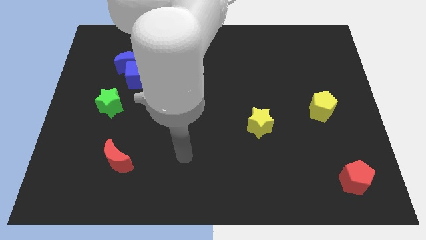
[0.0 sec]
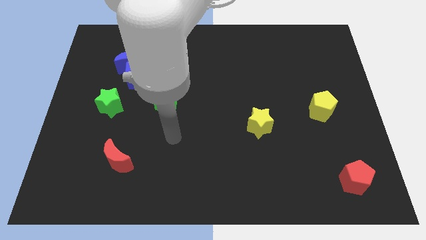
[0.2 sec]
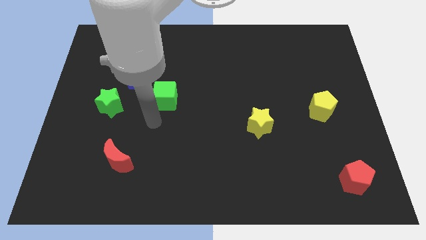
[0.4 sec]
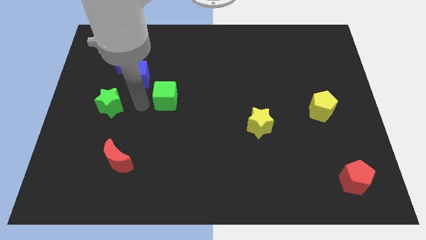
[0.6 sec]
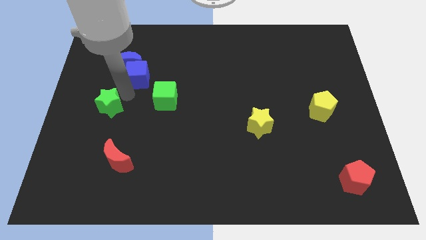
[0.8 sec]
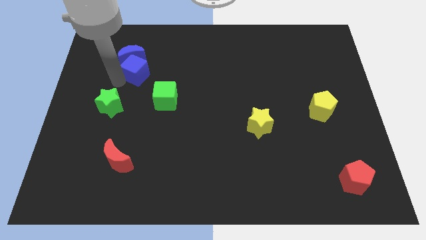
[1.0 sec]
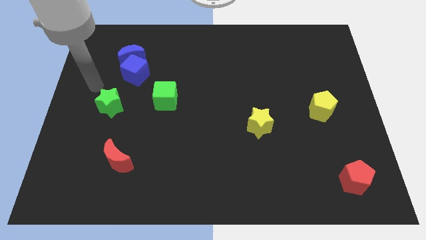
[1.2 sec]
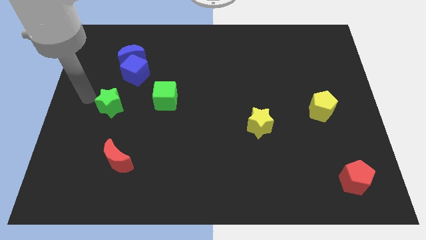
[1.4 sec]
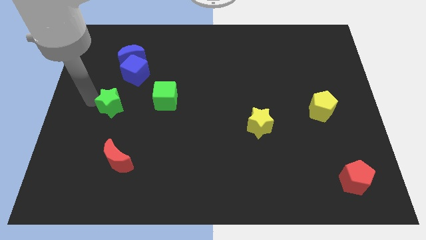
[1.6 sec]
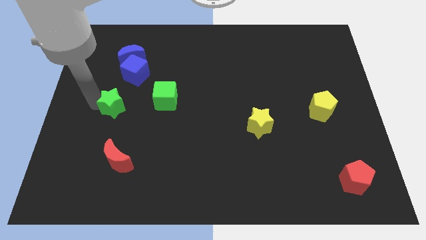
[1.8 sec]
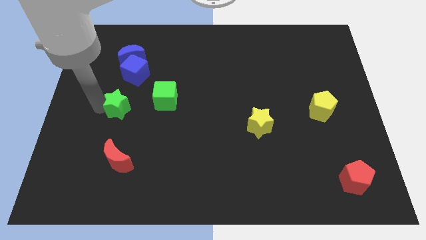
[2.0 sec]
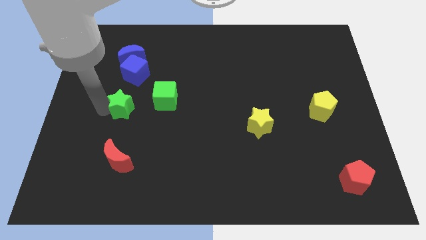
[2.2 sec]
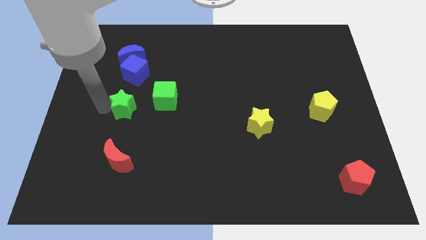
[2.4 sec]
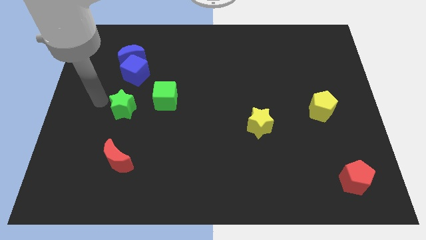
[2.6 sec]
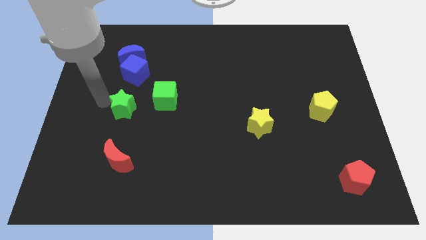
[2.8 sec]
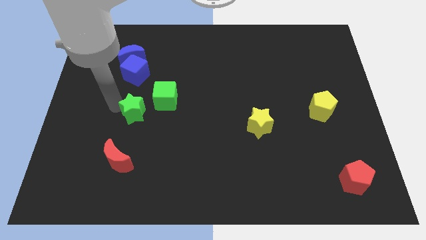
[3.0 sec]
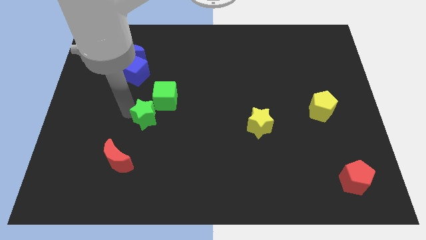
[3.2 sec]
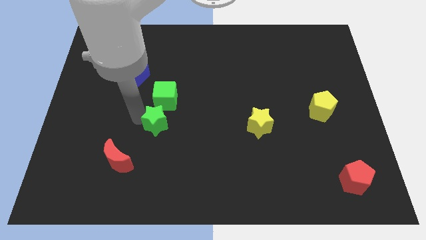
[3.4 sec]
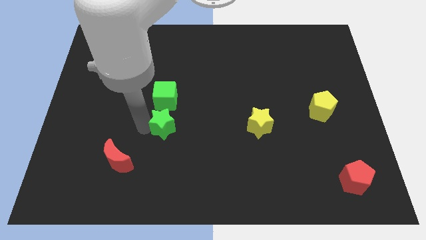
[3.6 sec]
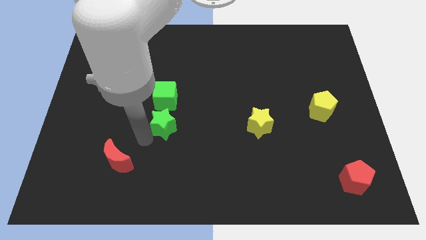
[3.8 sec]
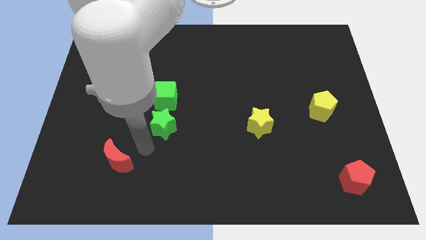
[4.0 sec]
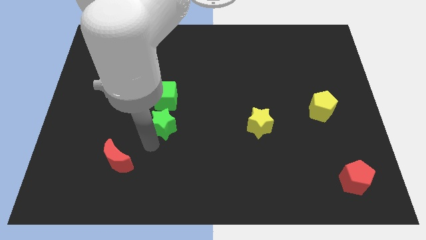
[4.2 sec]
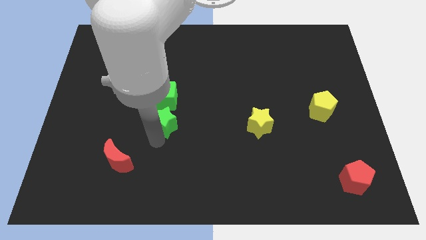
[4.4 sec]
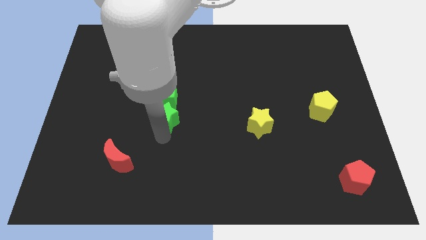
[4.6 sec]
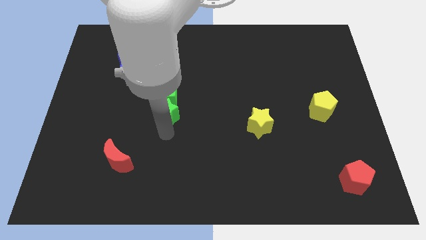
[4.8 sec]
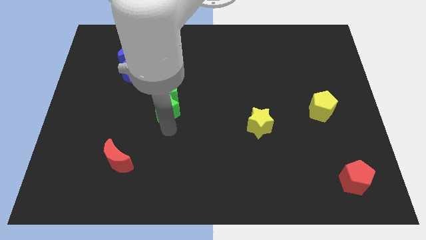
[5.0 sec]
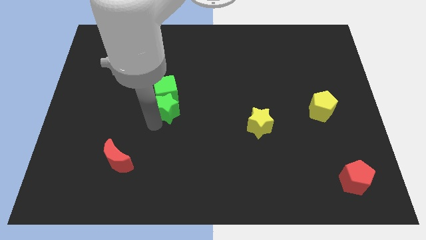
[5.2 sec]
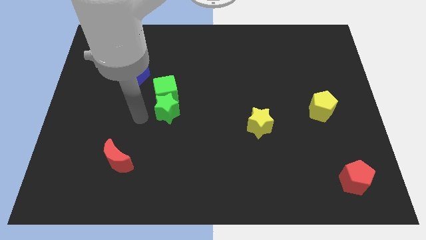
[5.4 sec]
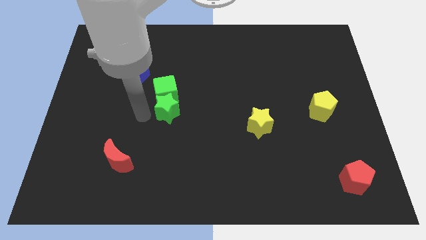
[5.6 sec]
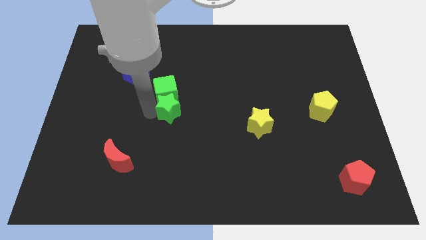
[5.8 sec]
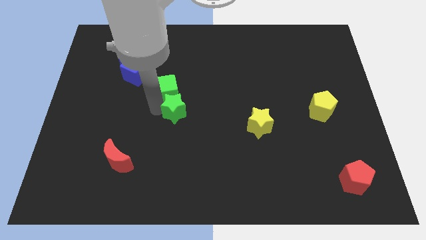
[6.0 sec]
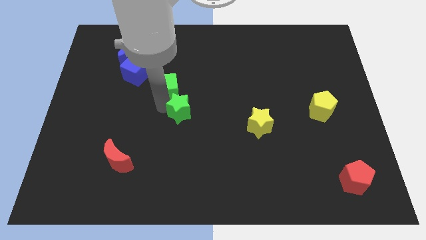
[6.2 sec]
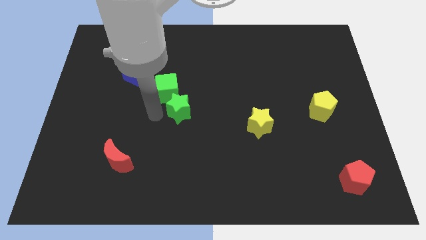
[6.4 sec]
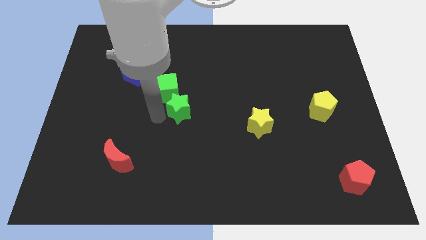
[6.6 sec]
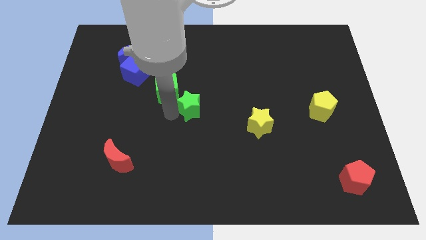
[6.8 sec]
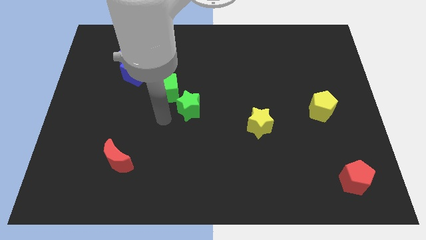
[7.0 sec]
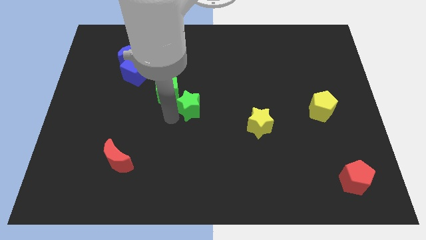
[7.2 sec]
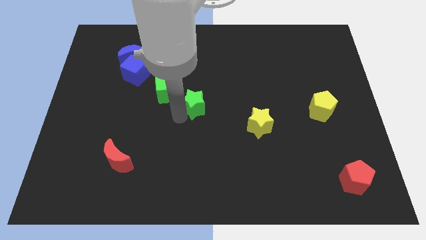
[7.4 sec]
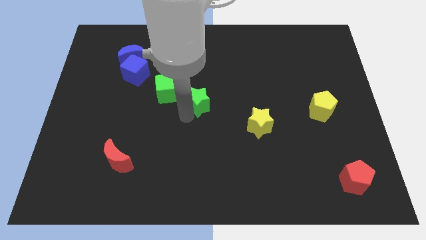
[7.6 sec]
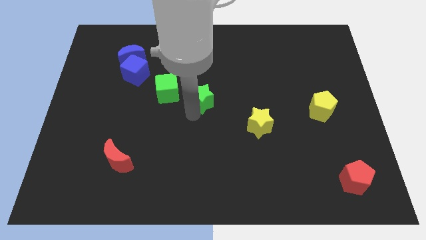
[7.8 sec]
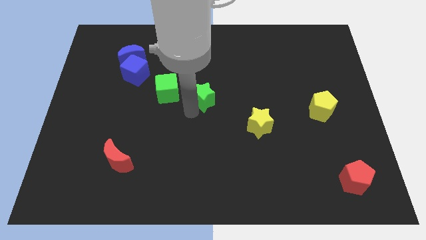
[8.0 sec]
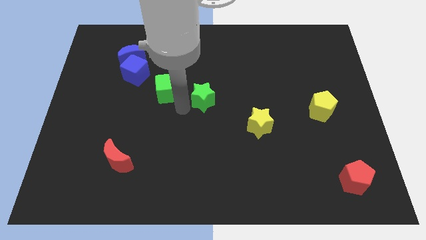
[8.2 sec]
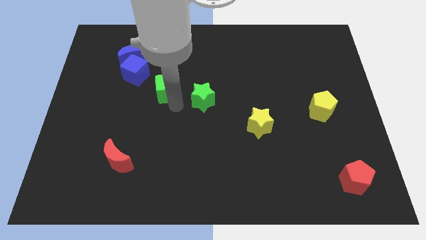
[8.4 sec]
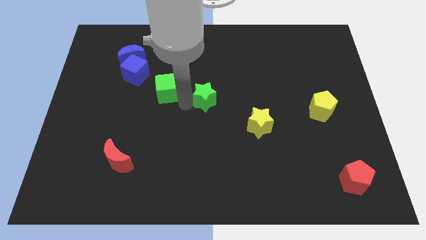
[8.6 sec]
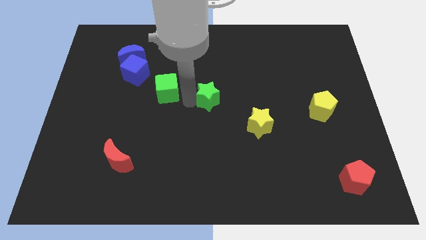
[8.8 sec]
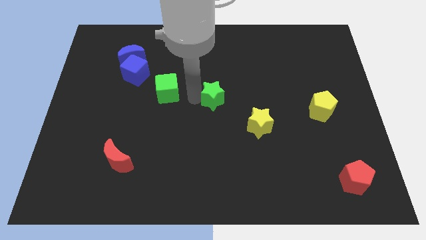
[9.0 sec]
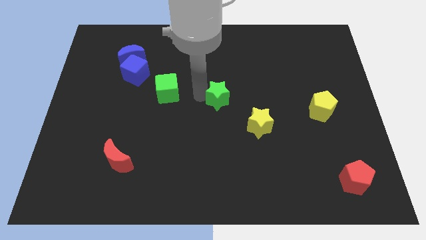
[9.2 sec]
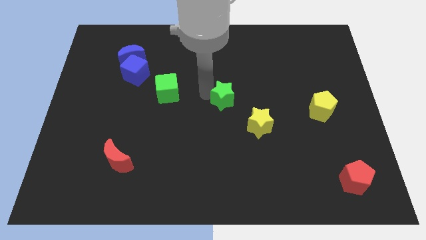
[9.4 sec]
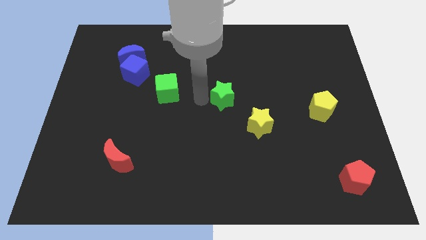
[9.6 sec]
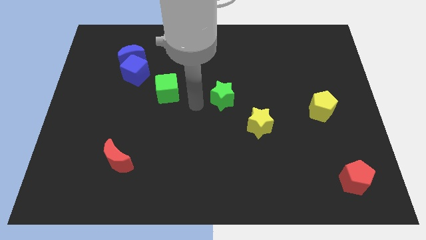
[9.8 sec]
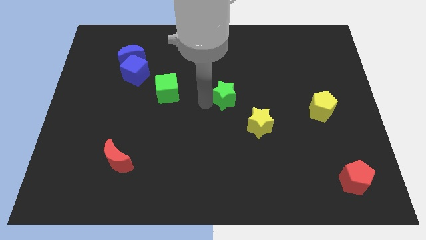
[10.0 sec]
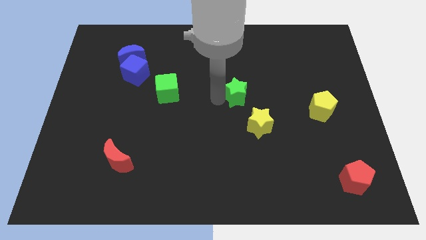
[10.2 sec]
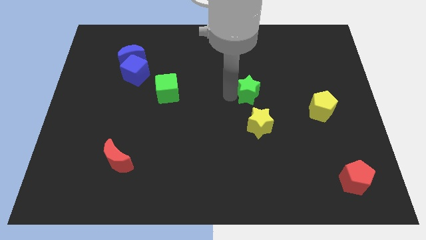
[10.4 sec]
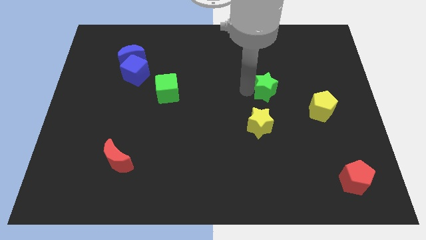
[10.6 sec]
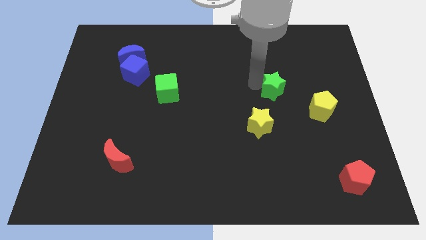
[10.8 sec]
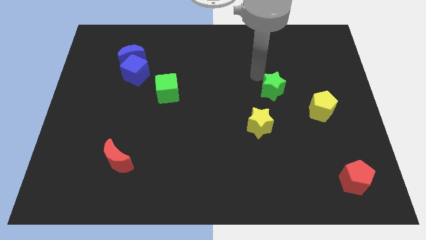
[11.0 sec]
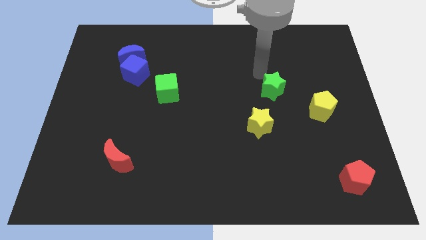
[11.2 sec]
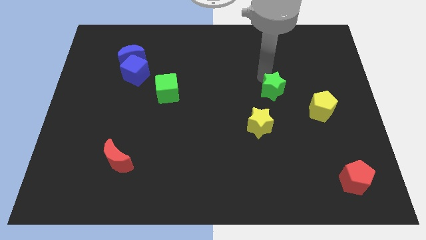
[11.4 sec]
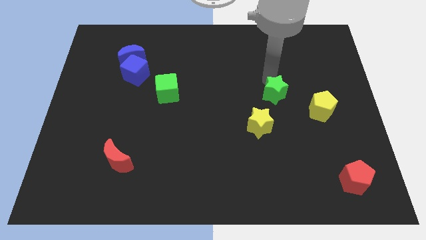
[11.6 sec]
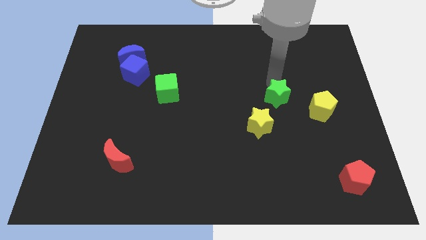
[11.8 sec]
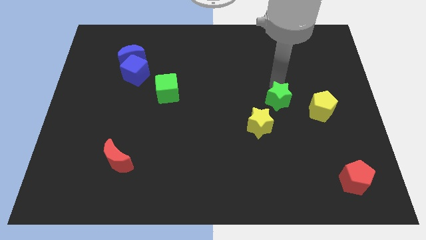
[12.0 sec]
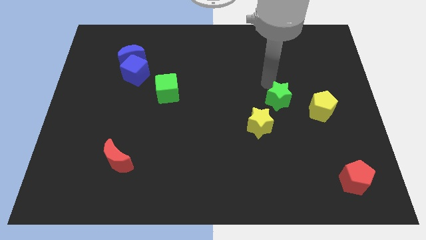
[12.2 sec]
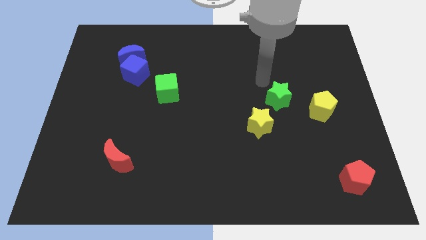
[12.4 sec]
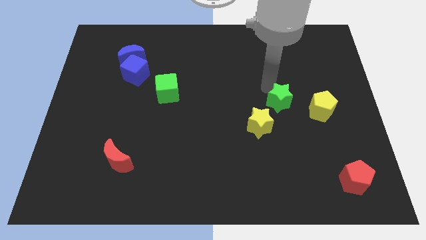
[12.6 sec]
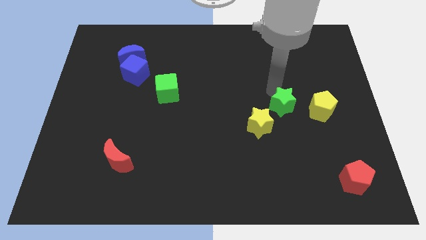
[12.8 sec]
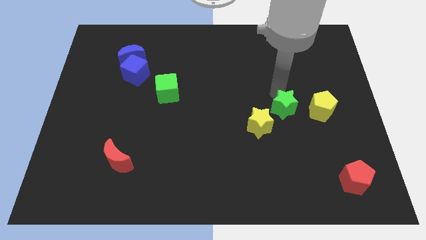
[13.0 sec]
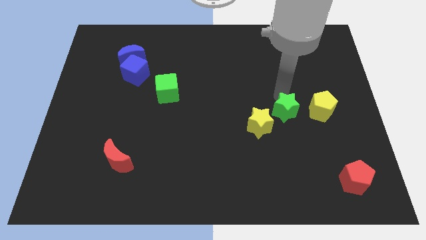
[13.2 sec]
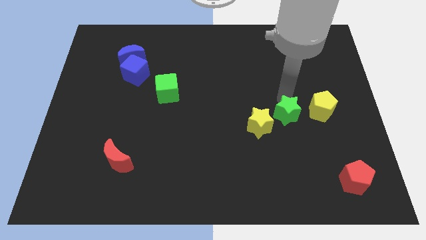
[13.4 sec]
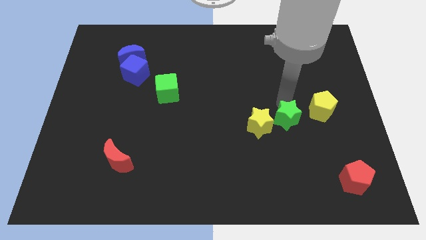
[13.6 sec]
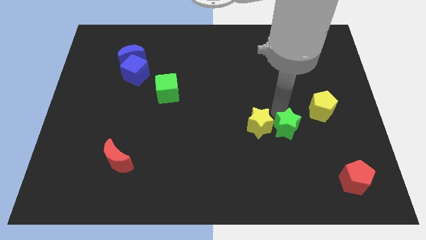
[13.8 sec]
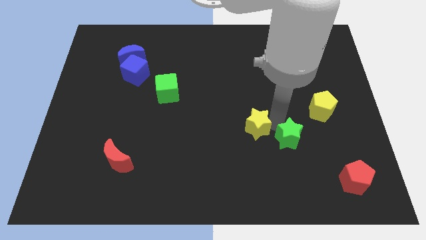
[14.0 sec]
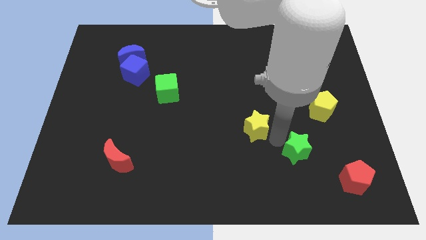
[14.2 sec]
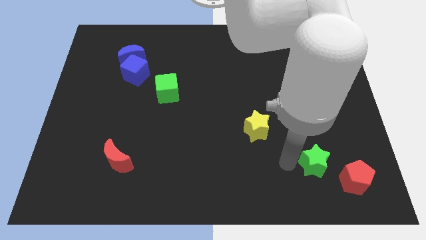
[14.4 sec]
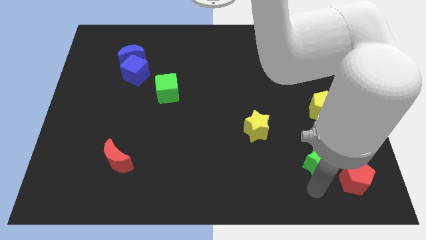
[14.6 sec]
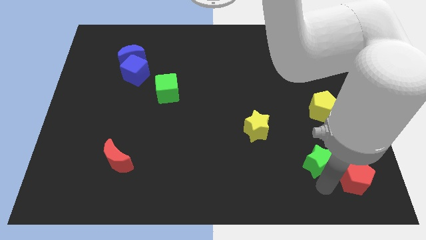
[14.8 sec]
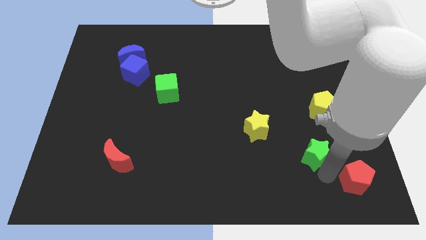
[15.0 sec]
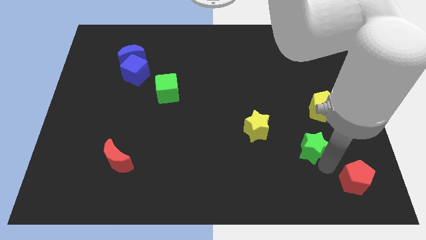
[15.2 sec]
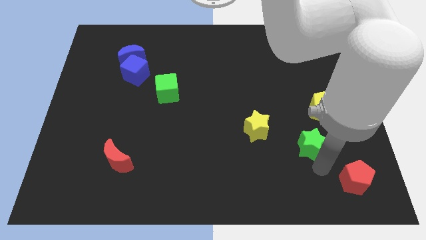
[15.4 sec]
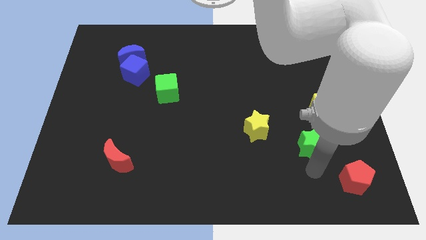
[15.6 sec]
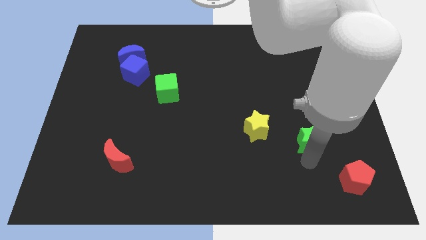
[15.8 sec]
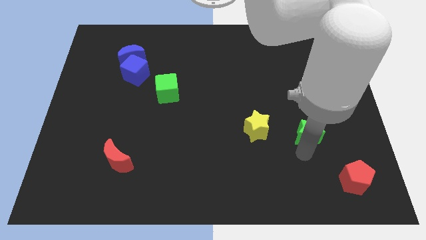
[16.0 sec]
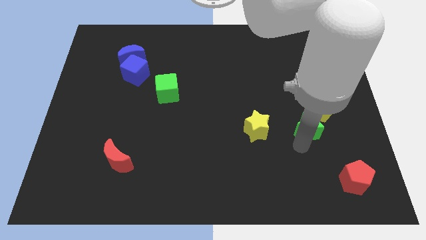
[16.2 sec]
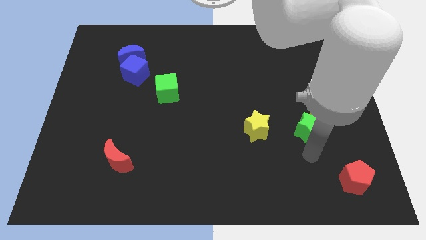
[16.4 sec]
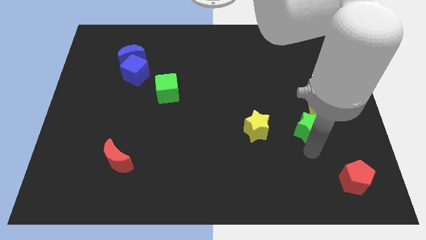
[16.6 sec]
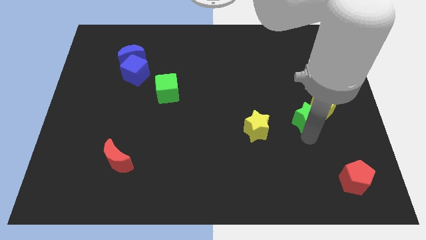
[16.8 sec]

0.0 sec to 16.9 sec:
slide the green star to the yellow pentagon
